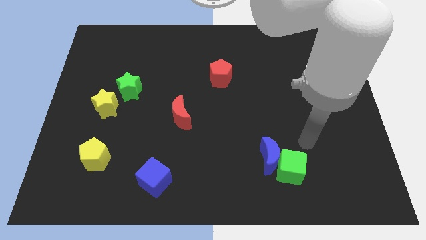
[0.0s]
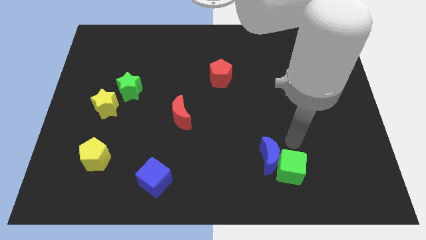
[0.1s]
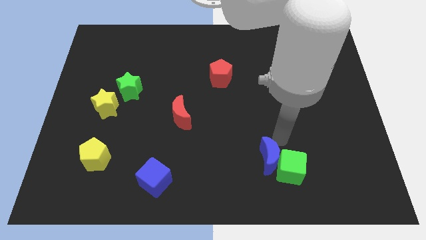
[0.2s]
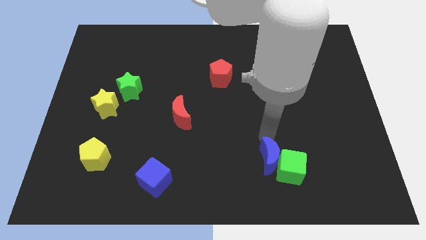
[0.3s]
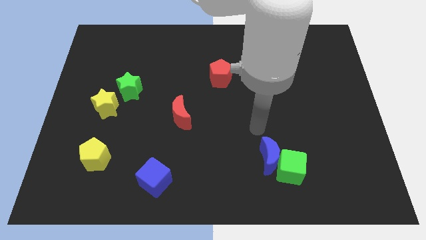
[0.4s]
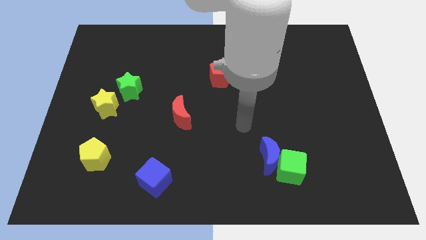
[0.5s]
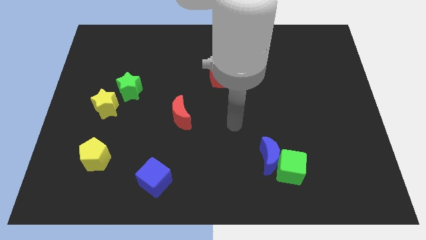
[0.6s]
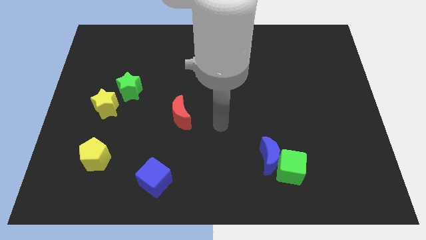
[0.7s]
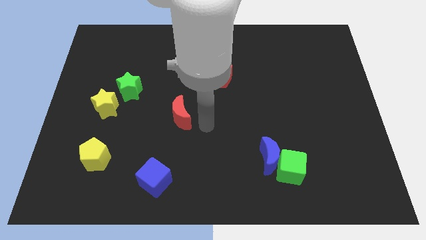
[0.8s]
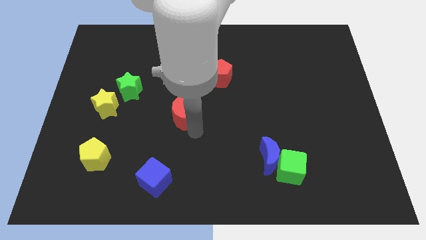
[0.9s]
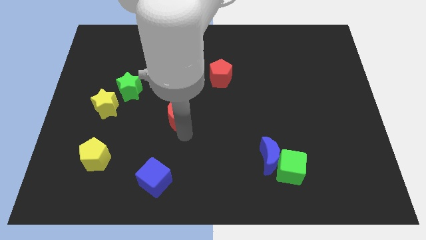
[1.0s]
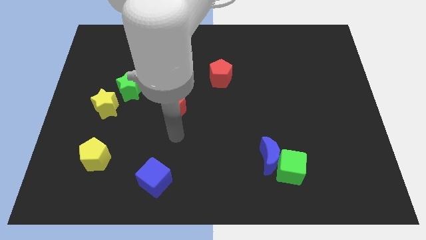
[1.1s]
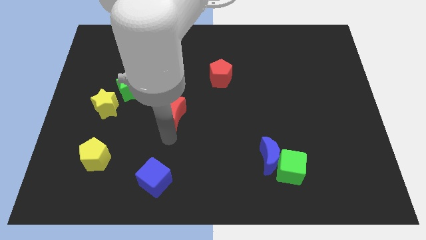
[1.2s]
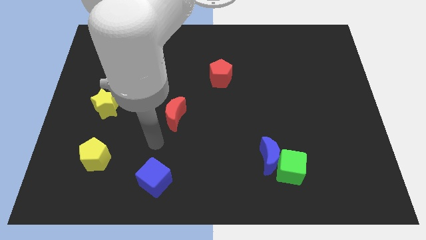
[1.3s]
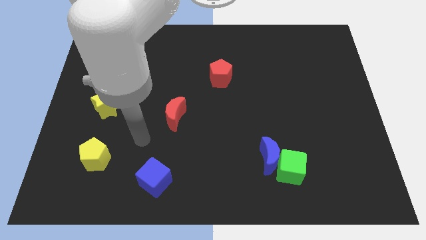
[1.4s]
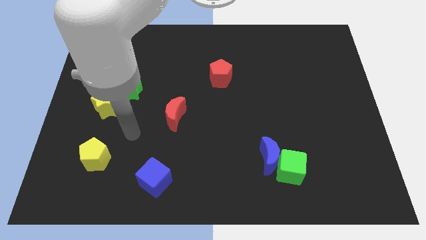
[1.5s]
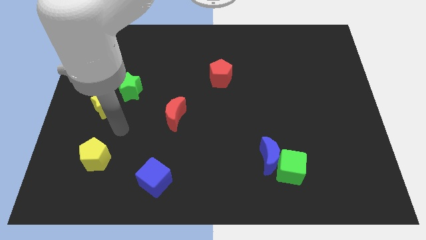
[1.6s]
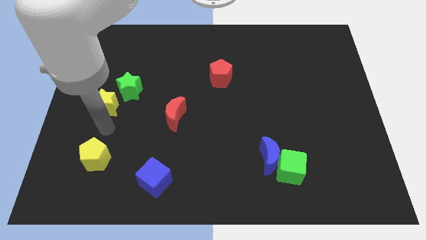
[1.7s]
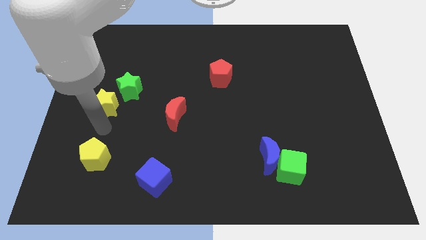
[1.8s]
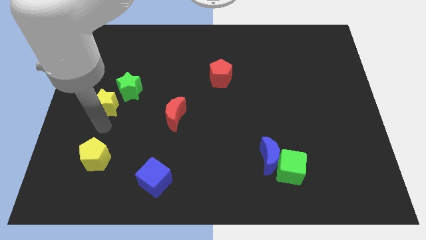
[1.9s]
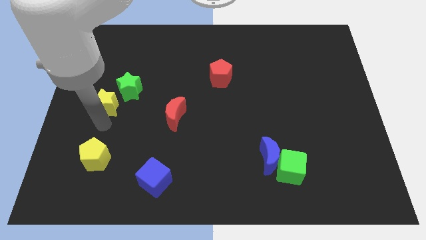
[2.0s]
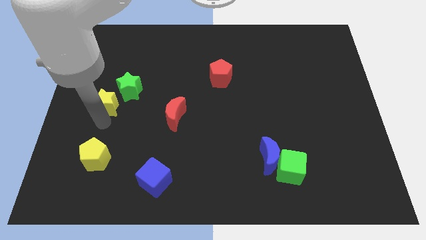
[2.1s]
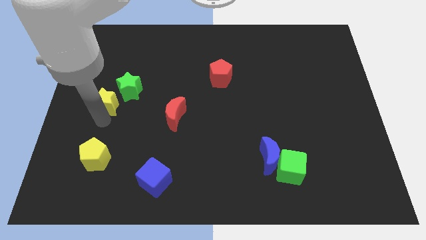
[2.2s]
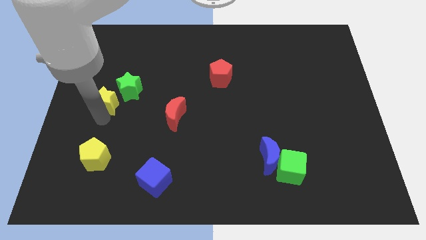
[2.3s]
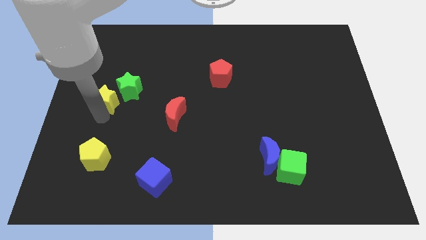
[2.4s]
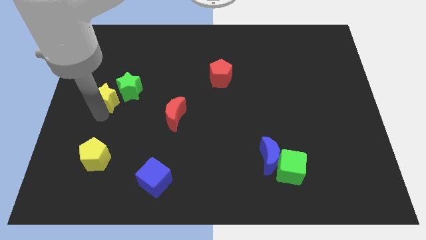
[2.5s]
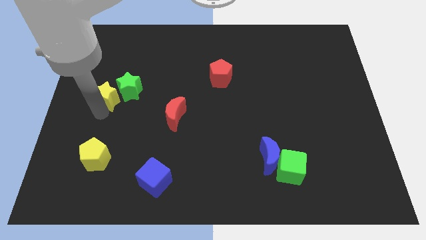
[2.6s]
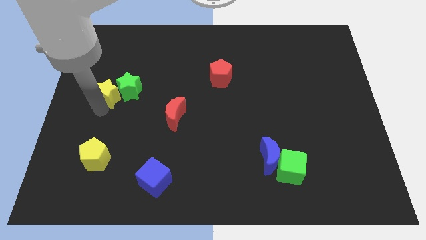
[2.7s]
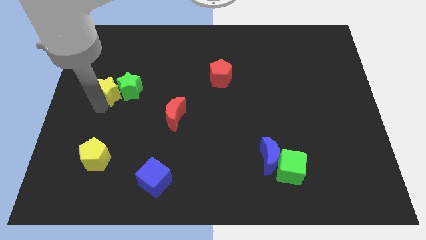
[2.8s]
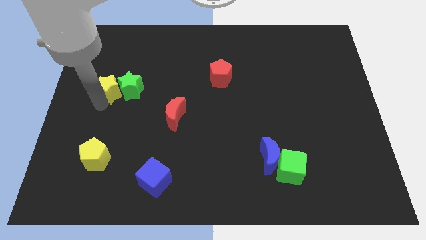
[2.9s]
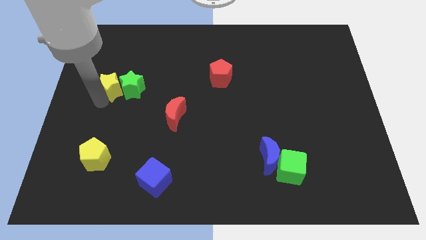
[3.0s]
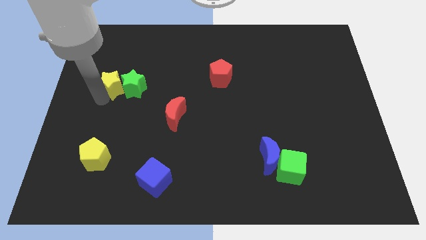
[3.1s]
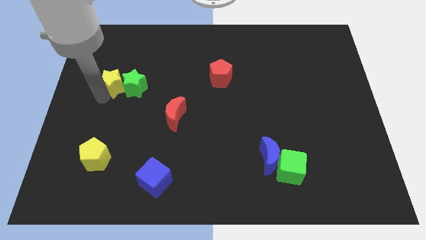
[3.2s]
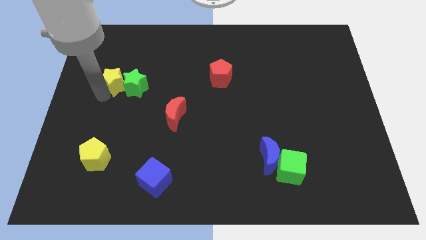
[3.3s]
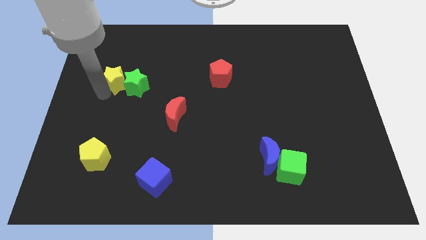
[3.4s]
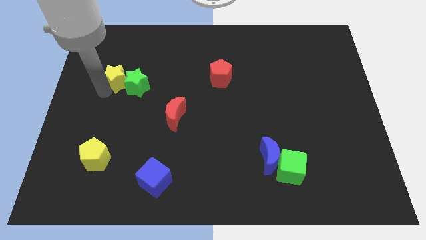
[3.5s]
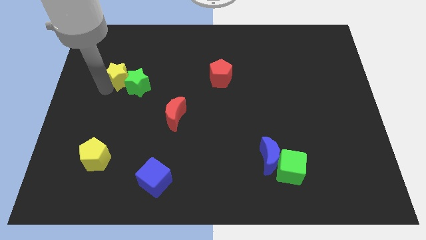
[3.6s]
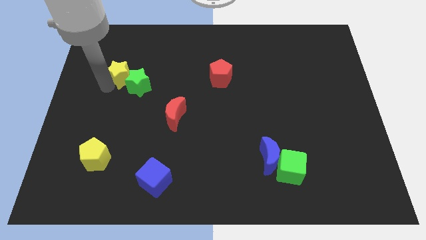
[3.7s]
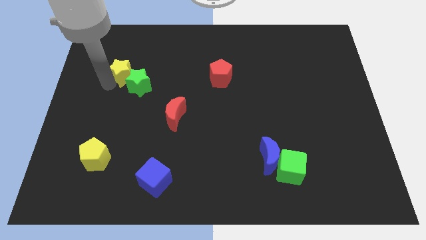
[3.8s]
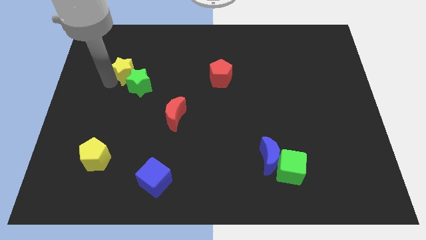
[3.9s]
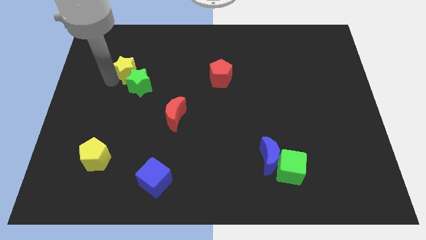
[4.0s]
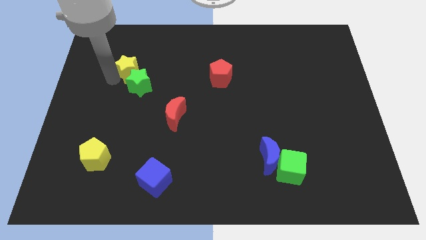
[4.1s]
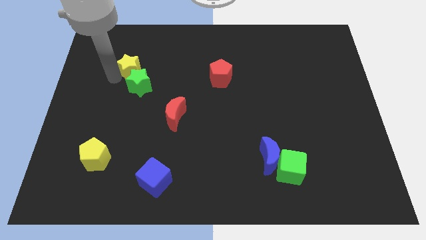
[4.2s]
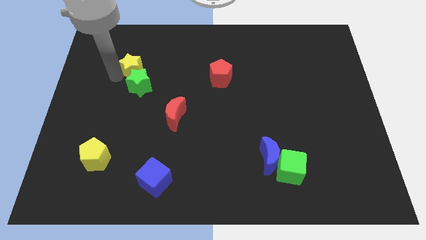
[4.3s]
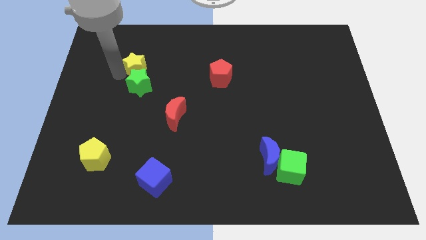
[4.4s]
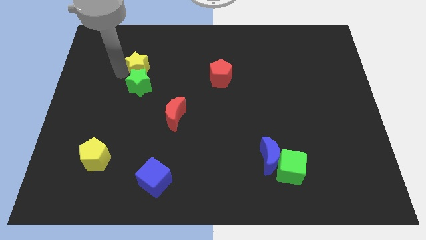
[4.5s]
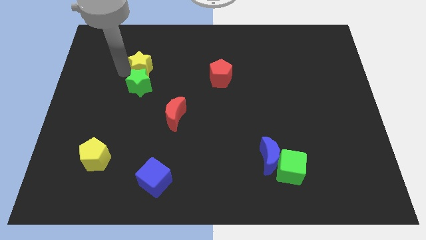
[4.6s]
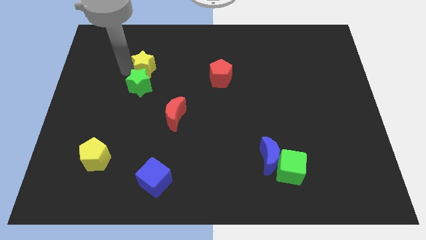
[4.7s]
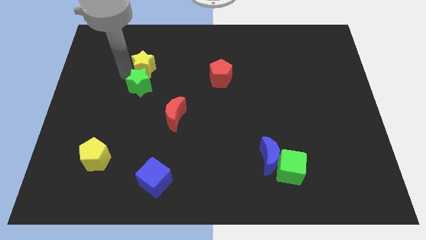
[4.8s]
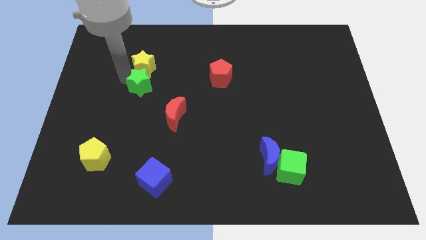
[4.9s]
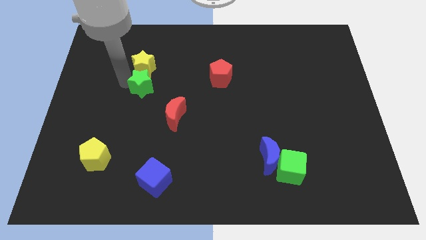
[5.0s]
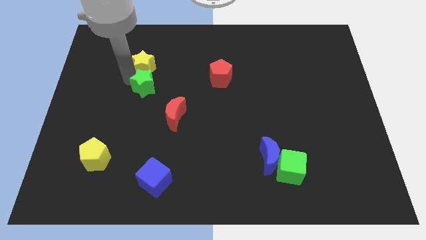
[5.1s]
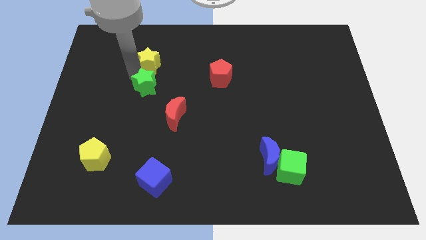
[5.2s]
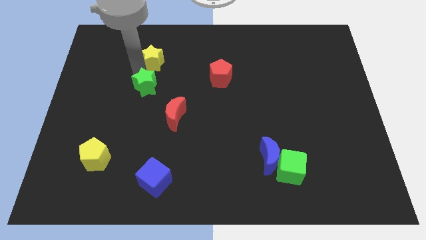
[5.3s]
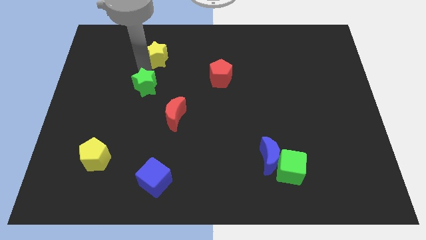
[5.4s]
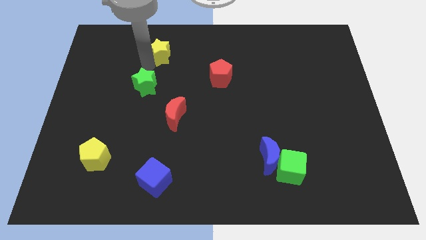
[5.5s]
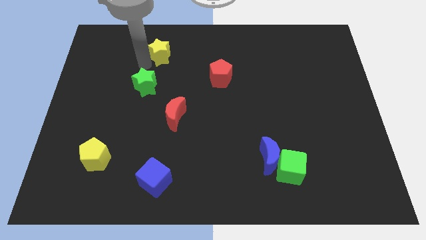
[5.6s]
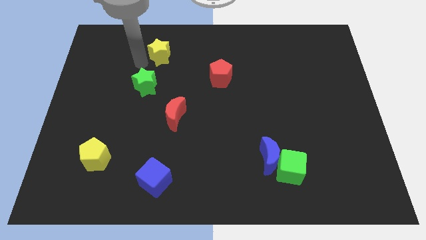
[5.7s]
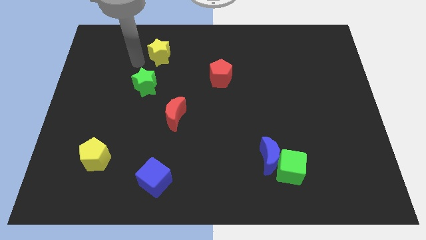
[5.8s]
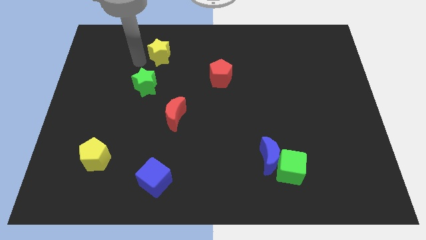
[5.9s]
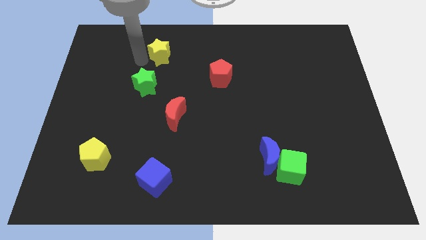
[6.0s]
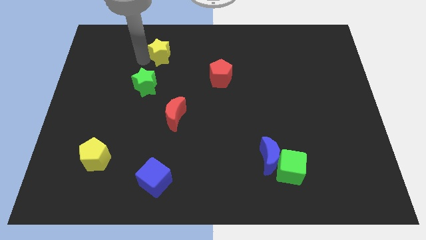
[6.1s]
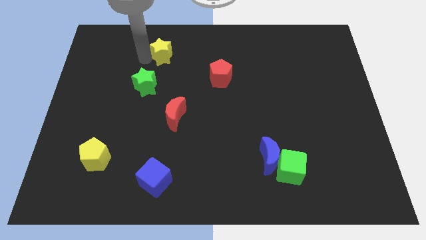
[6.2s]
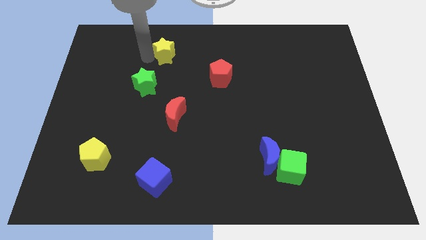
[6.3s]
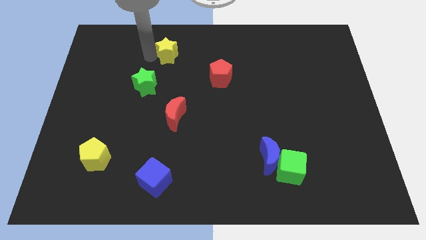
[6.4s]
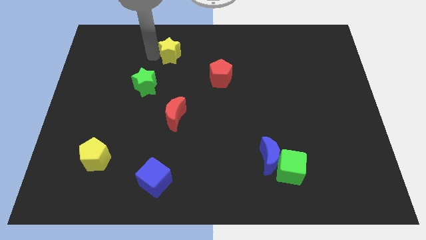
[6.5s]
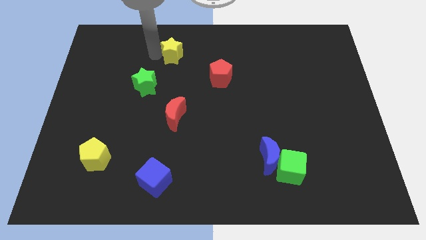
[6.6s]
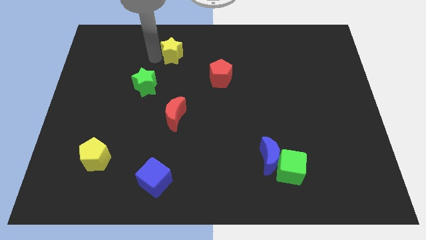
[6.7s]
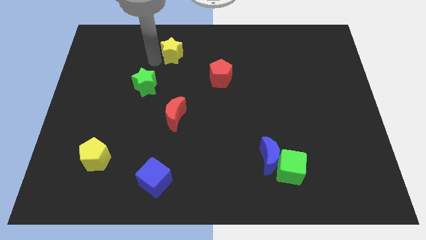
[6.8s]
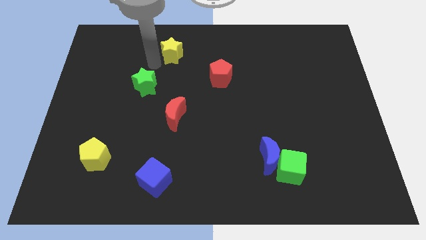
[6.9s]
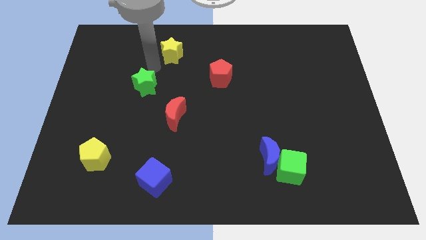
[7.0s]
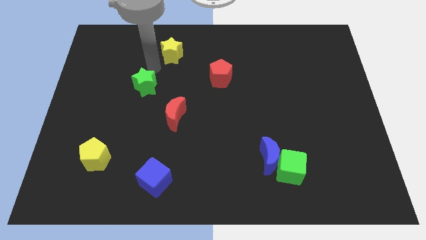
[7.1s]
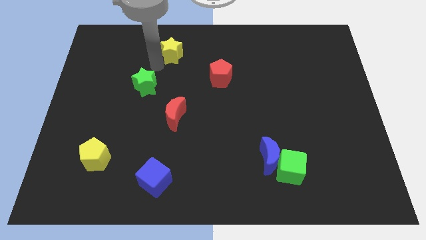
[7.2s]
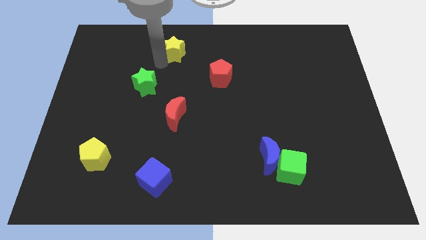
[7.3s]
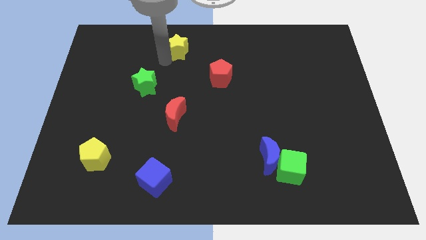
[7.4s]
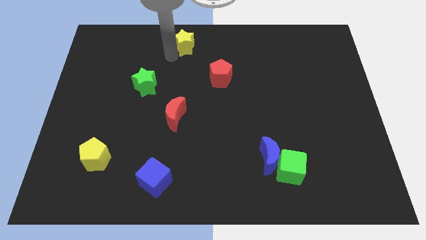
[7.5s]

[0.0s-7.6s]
put the yellow star to the top
